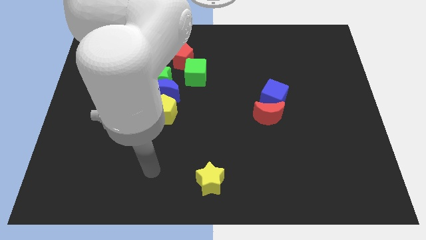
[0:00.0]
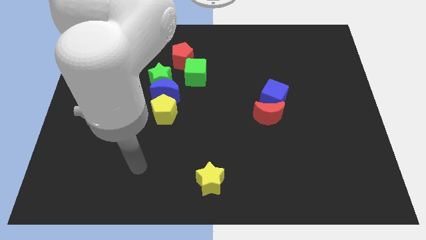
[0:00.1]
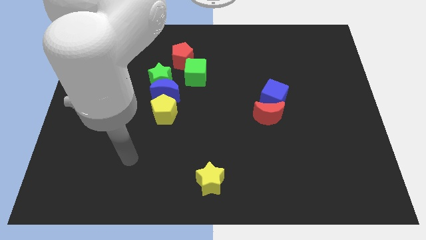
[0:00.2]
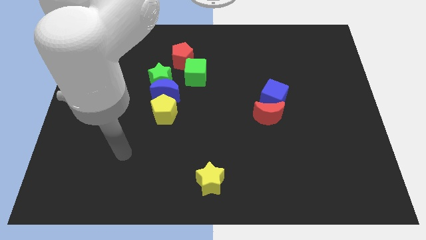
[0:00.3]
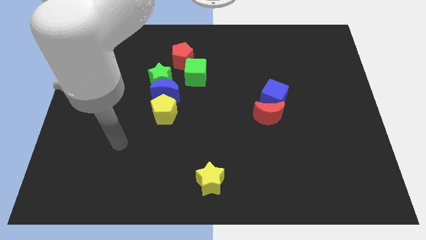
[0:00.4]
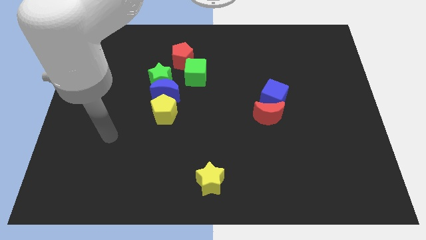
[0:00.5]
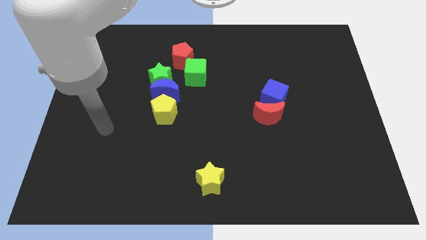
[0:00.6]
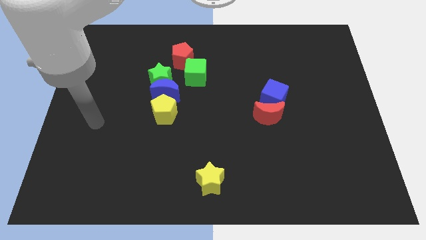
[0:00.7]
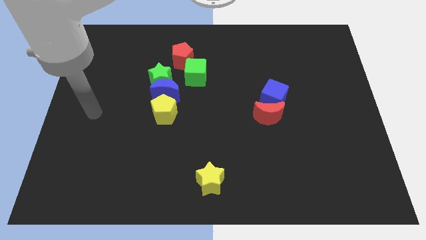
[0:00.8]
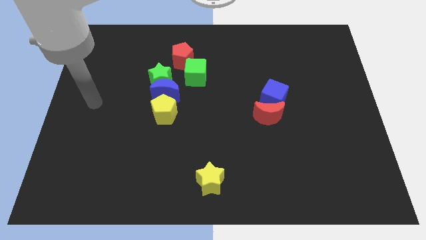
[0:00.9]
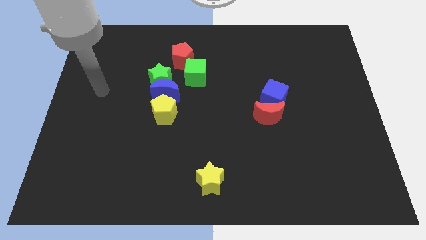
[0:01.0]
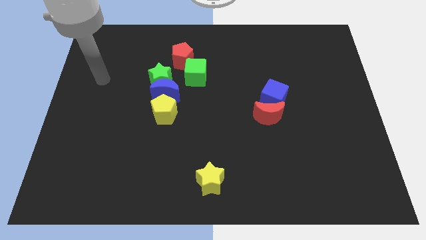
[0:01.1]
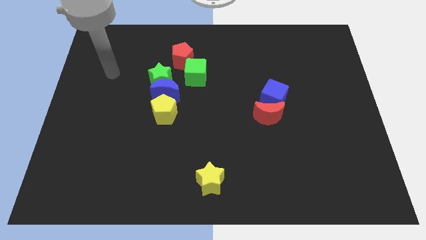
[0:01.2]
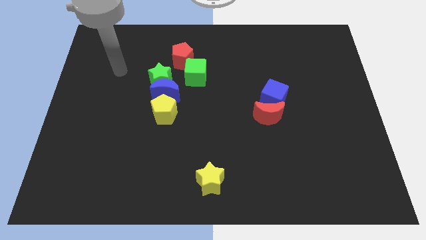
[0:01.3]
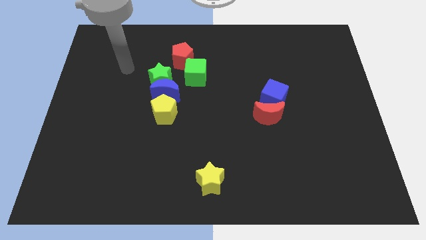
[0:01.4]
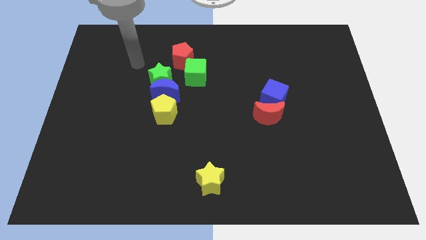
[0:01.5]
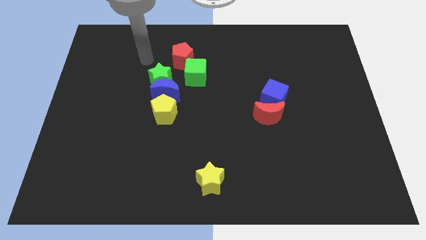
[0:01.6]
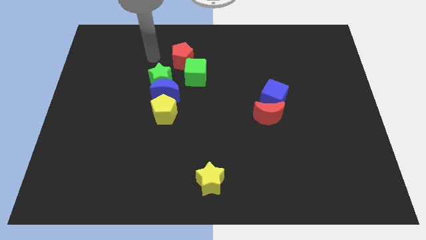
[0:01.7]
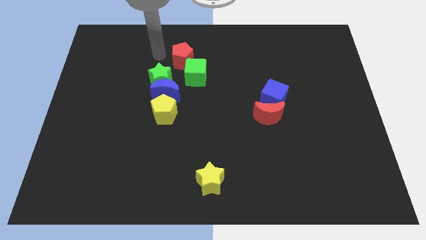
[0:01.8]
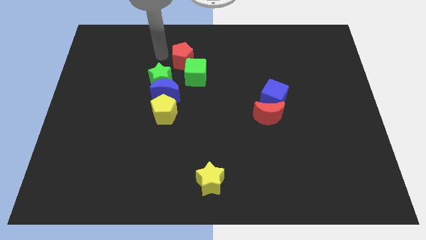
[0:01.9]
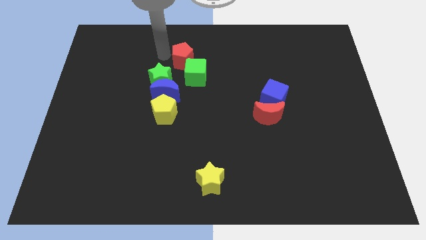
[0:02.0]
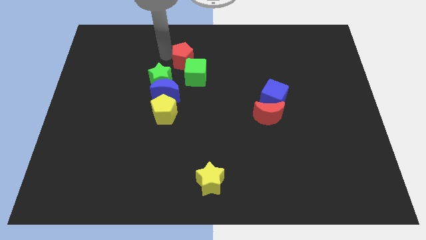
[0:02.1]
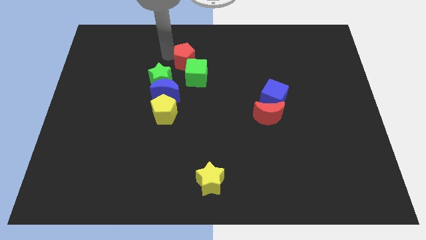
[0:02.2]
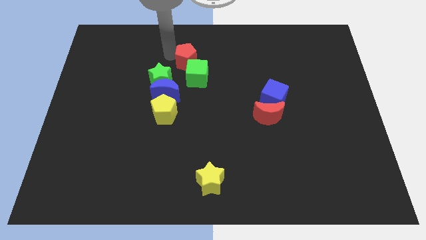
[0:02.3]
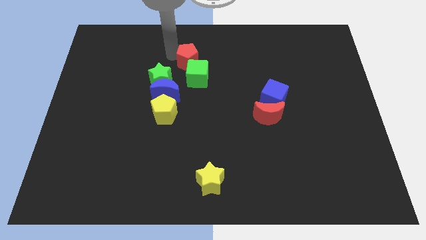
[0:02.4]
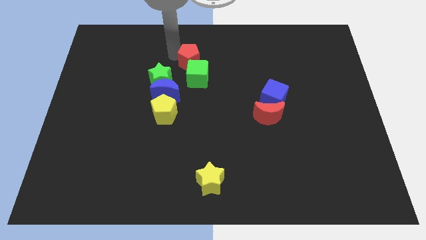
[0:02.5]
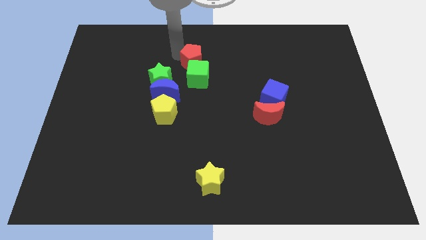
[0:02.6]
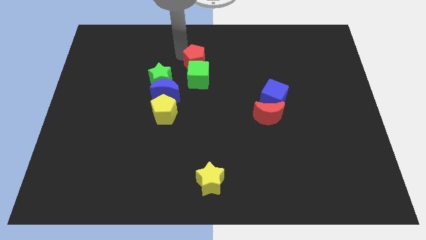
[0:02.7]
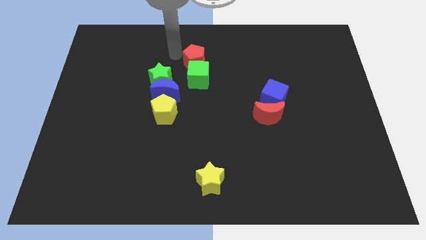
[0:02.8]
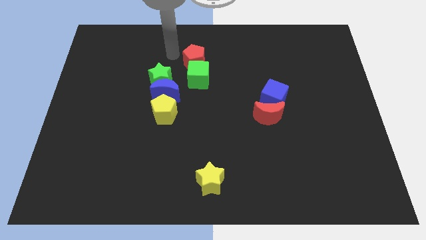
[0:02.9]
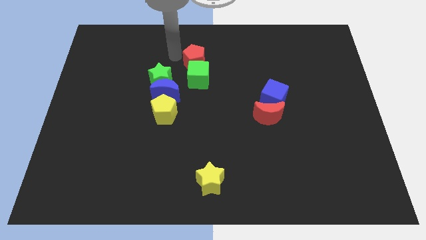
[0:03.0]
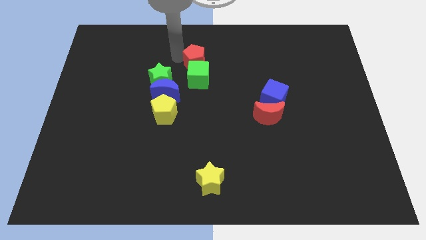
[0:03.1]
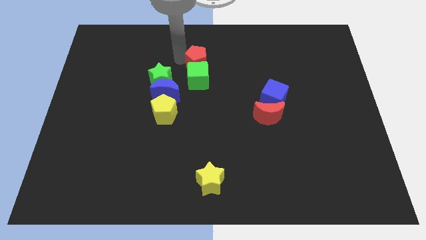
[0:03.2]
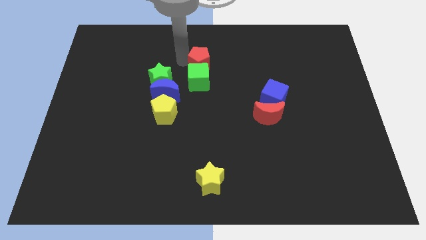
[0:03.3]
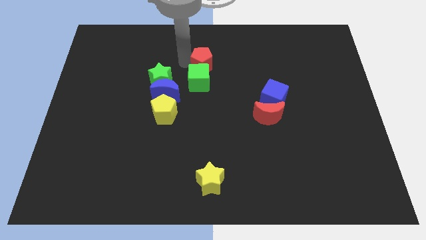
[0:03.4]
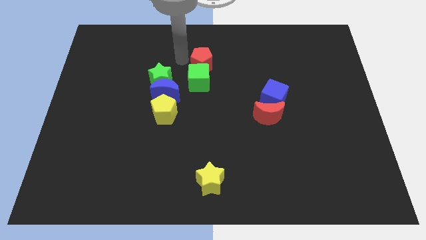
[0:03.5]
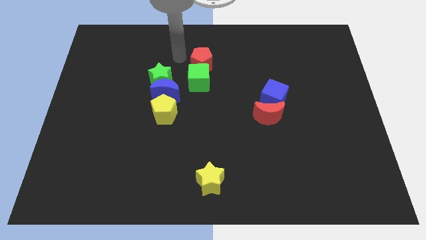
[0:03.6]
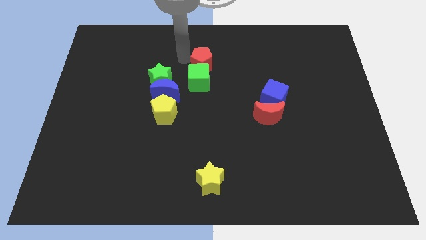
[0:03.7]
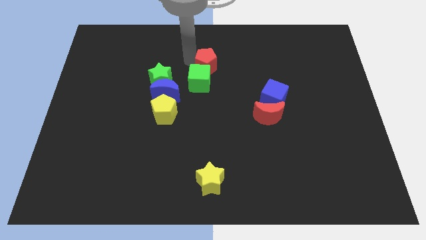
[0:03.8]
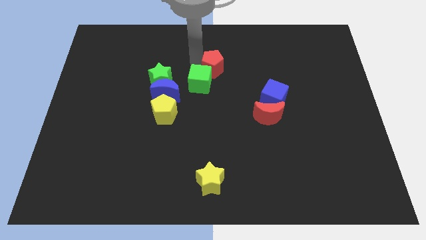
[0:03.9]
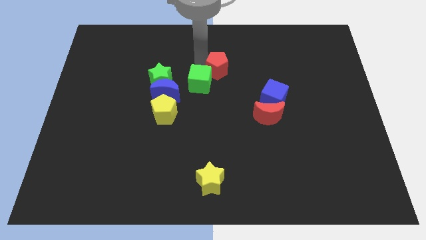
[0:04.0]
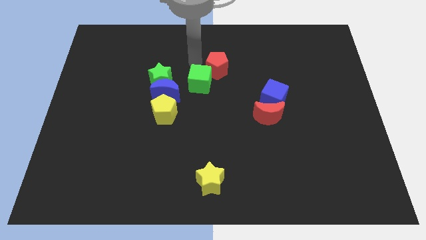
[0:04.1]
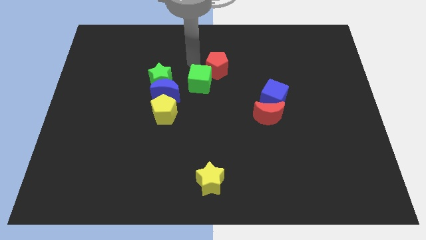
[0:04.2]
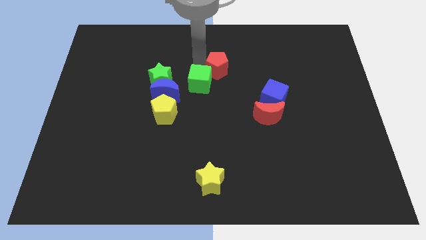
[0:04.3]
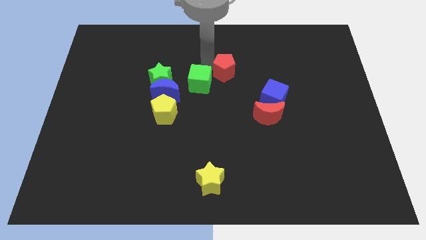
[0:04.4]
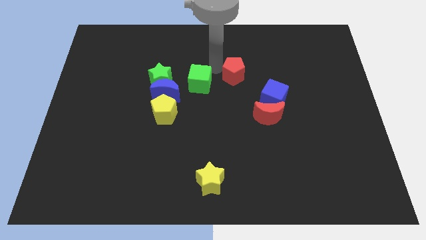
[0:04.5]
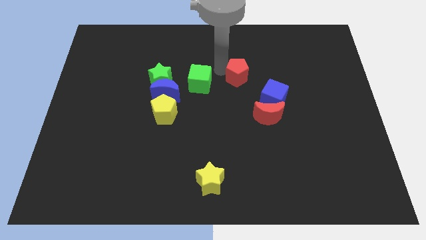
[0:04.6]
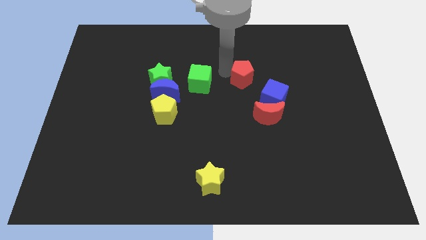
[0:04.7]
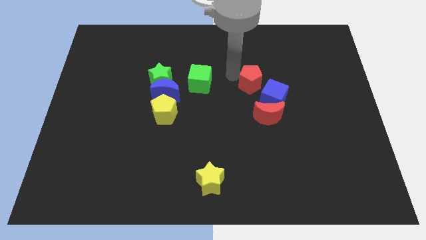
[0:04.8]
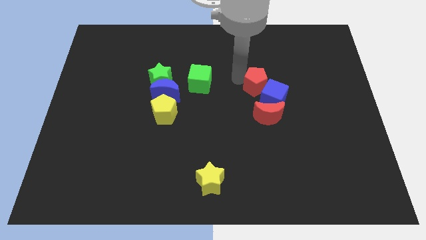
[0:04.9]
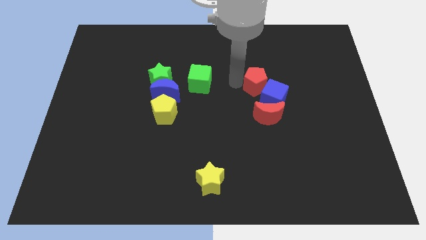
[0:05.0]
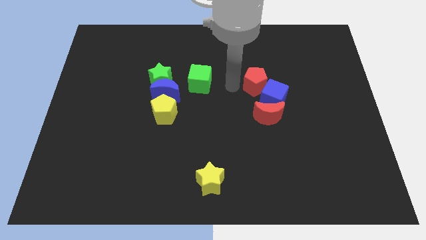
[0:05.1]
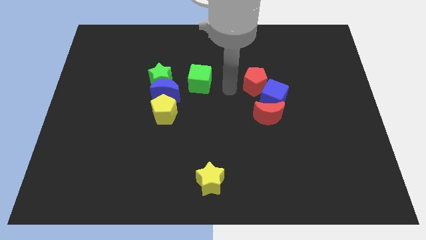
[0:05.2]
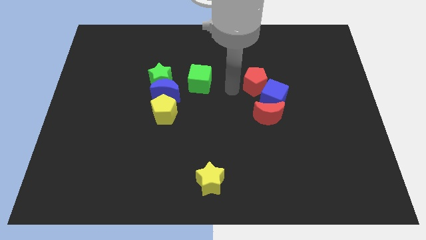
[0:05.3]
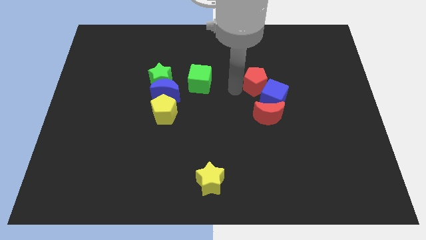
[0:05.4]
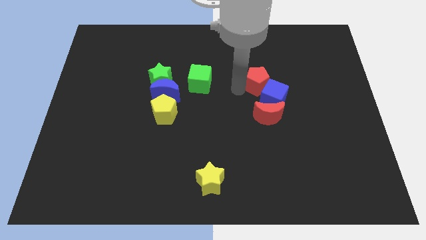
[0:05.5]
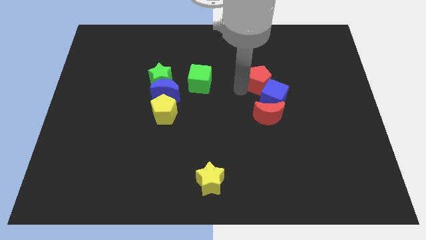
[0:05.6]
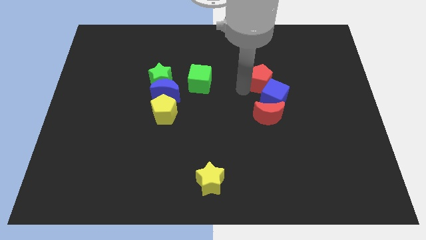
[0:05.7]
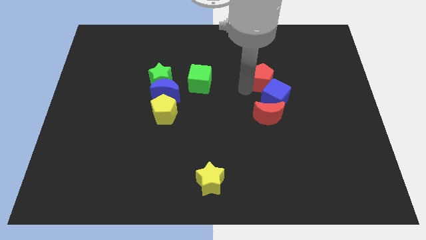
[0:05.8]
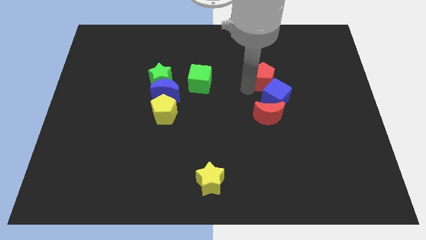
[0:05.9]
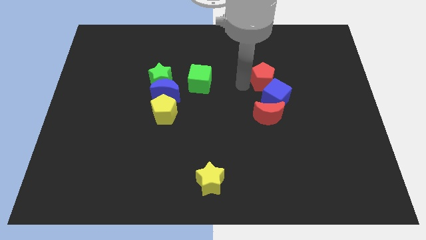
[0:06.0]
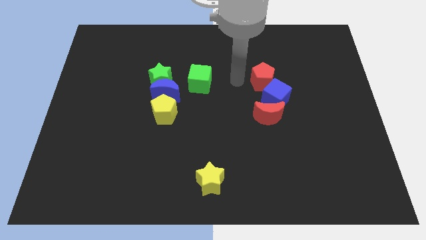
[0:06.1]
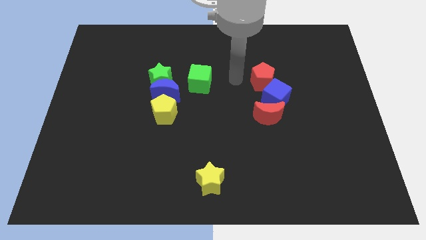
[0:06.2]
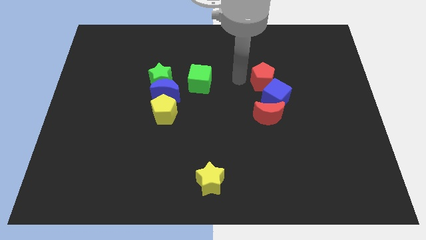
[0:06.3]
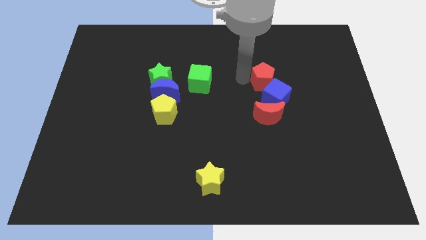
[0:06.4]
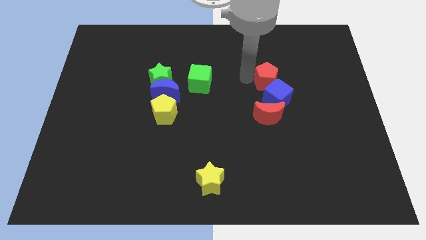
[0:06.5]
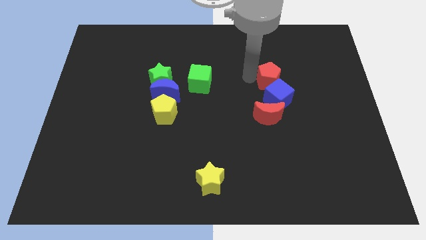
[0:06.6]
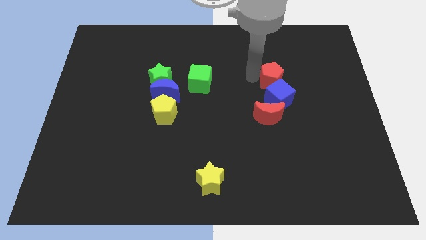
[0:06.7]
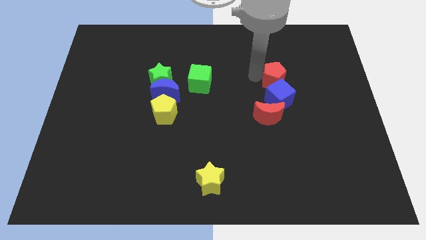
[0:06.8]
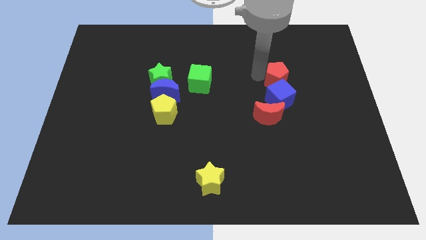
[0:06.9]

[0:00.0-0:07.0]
put the red pentagon to the top right side of the blue cube

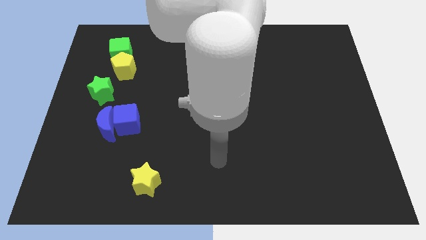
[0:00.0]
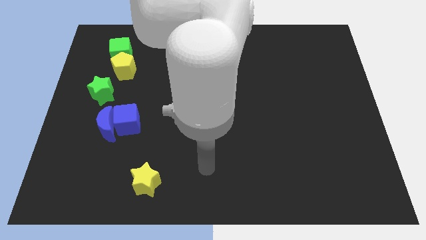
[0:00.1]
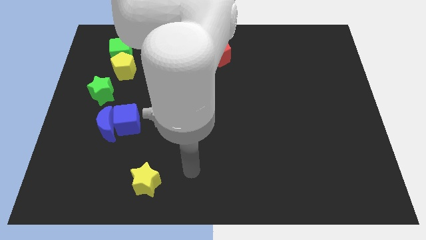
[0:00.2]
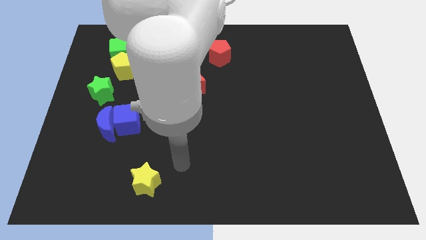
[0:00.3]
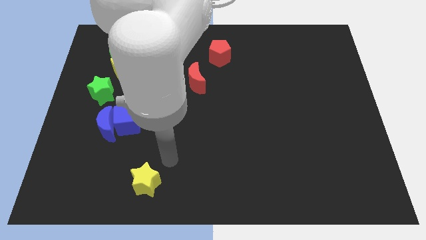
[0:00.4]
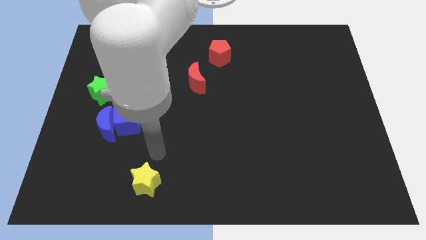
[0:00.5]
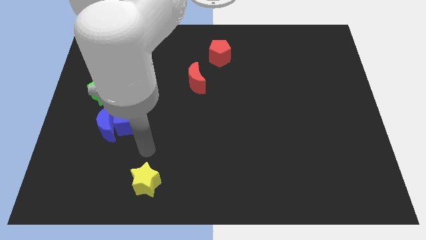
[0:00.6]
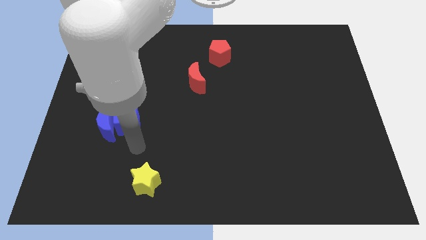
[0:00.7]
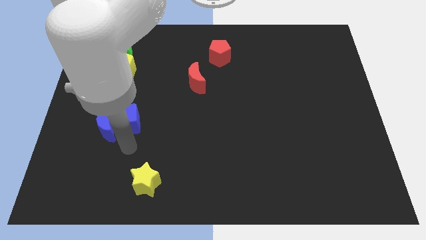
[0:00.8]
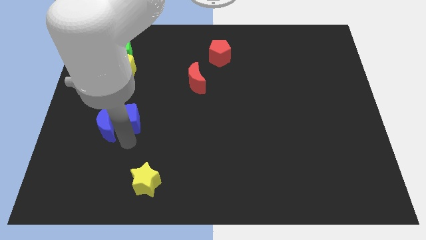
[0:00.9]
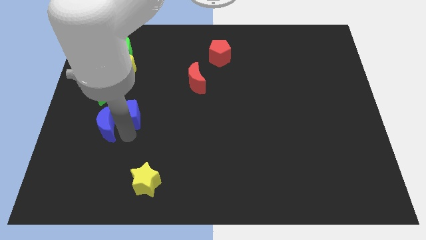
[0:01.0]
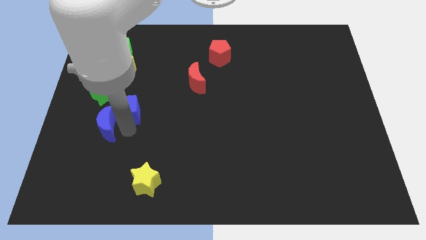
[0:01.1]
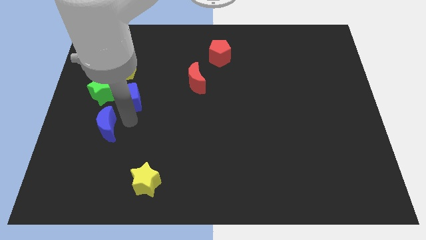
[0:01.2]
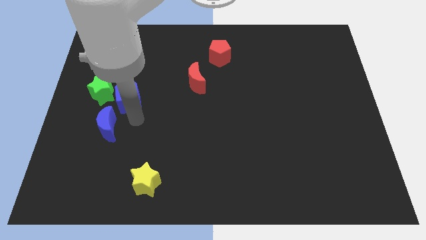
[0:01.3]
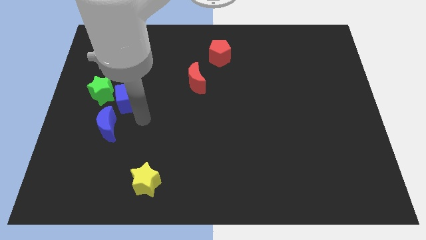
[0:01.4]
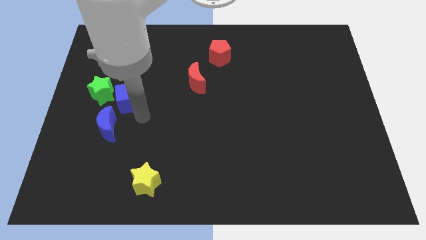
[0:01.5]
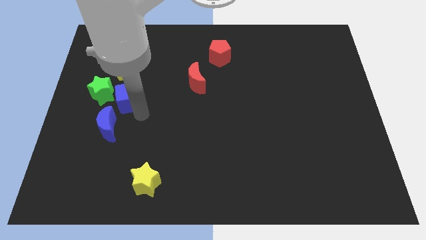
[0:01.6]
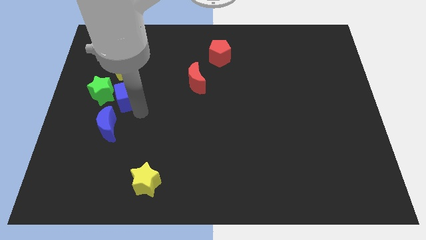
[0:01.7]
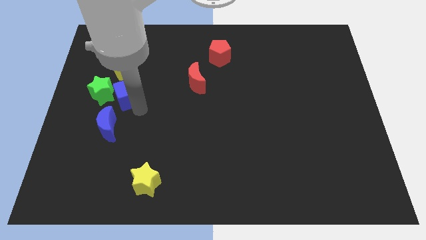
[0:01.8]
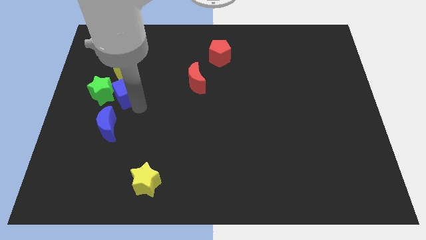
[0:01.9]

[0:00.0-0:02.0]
push the blue cube to the bottom of the green cube
